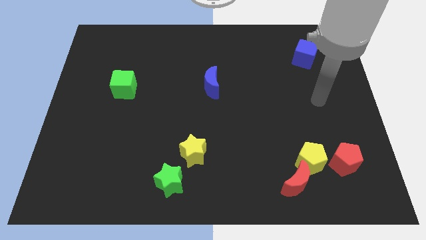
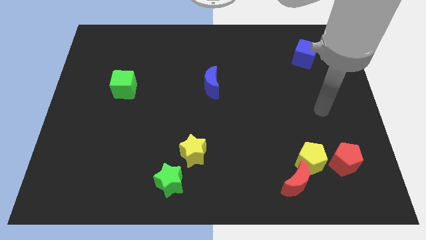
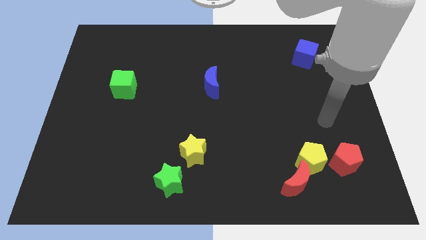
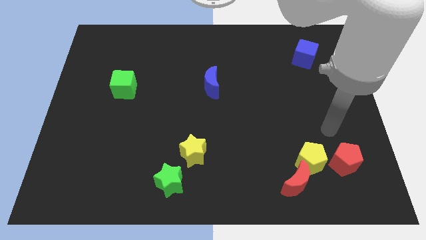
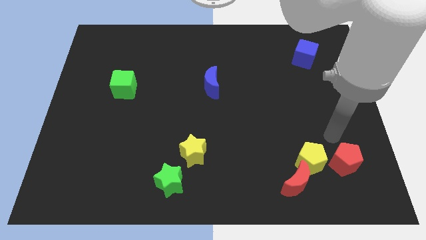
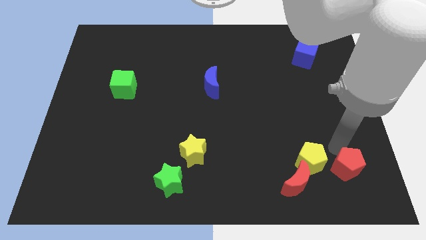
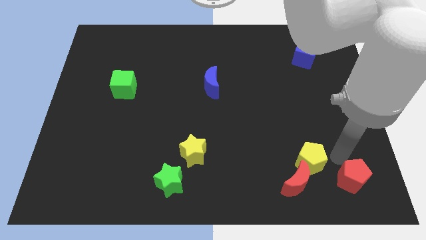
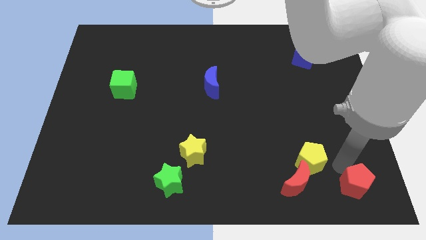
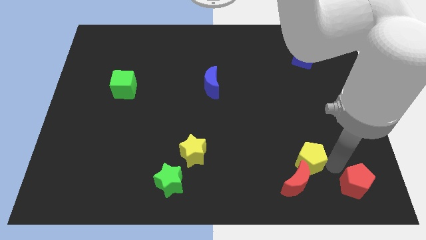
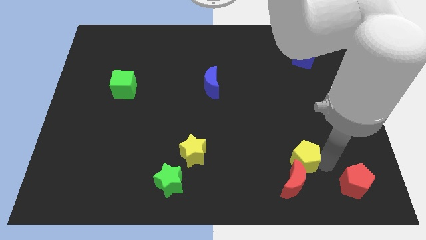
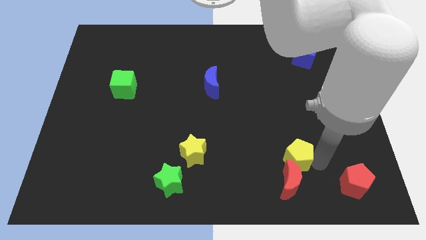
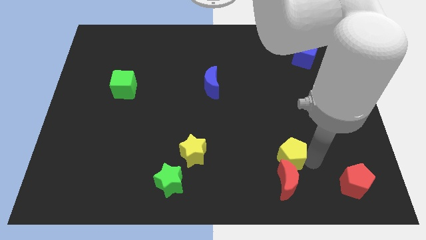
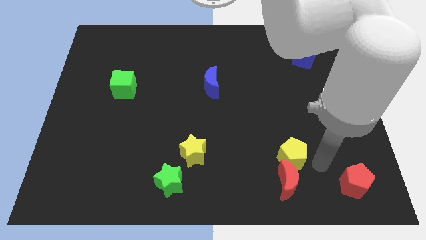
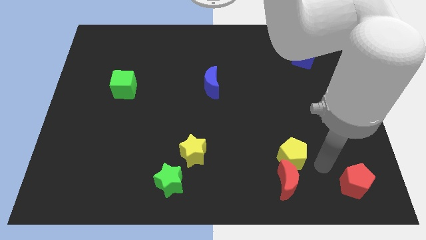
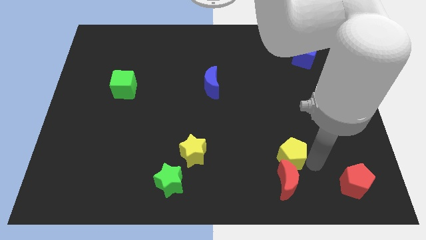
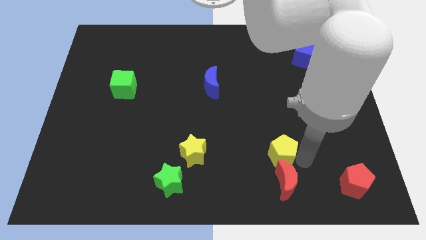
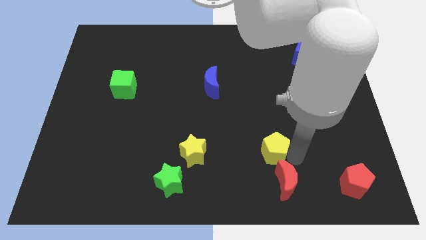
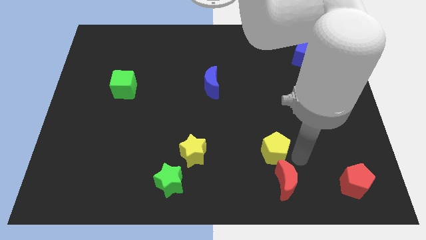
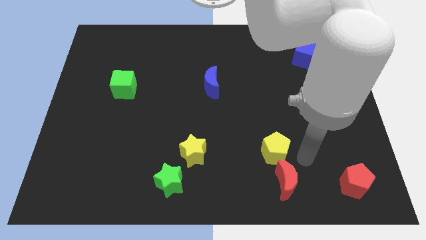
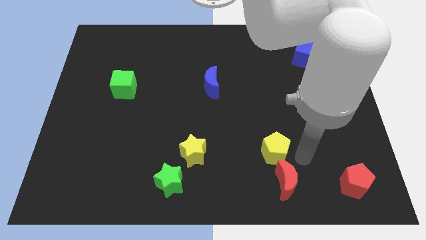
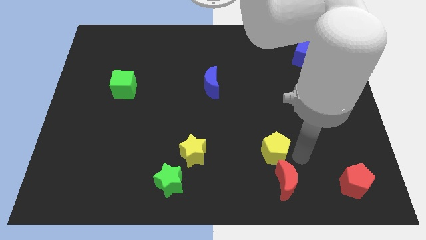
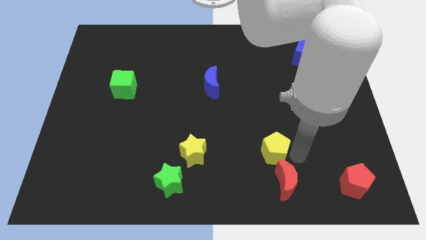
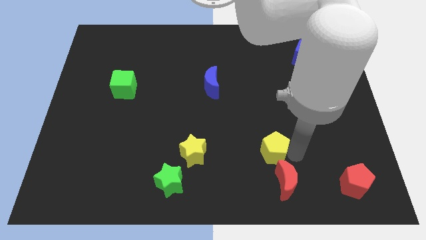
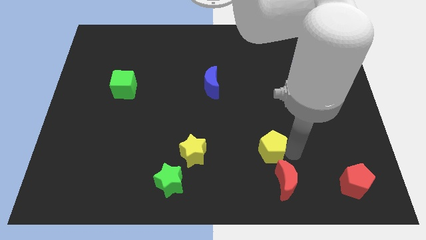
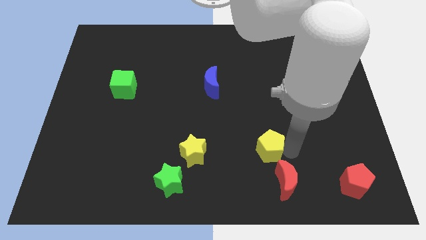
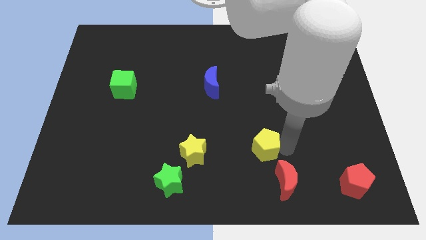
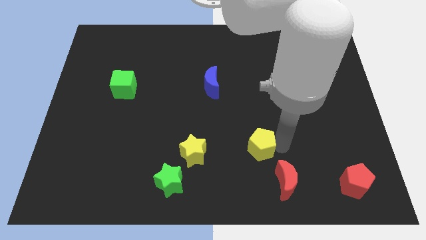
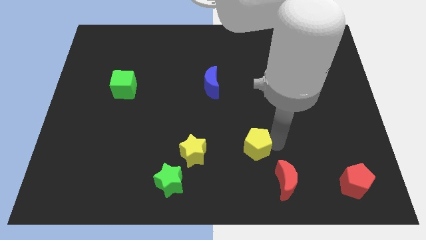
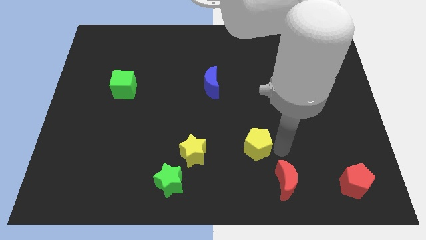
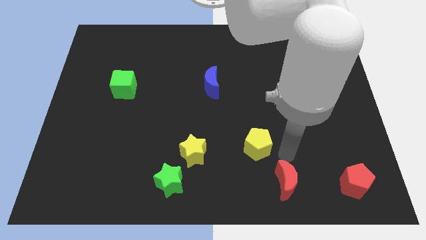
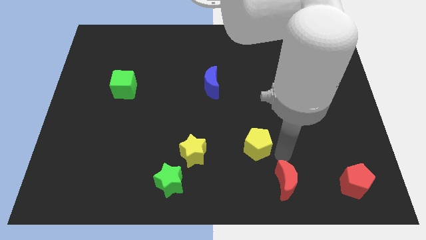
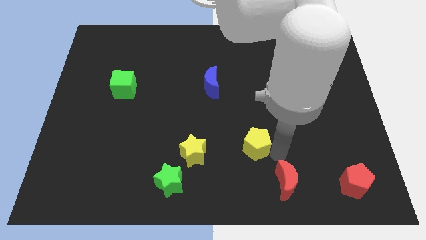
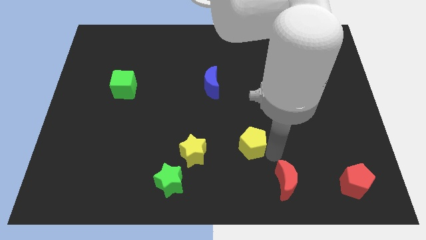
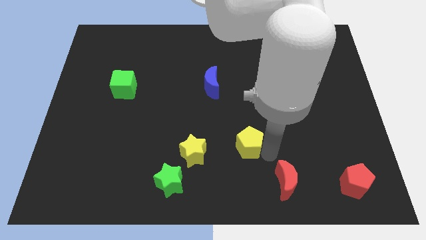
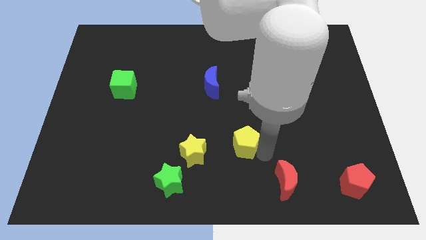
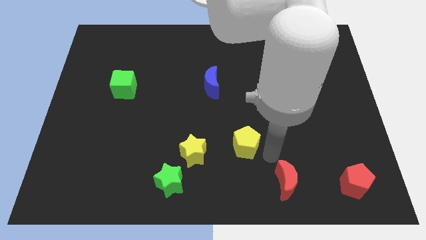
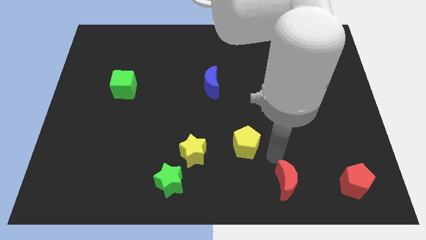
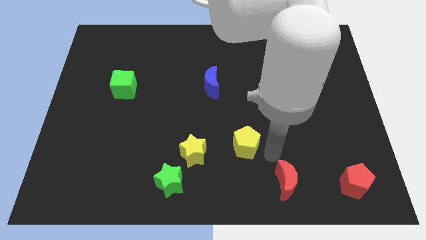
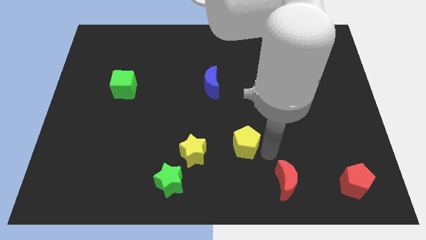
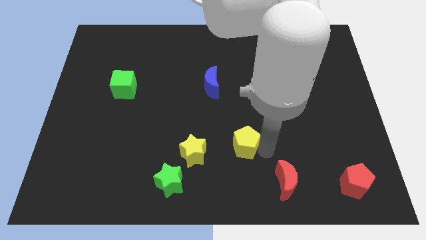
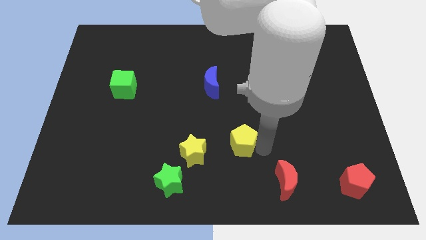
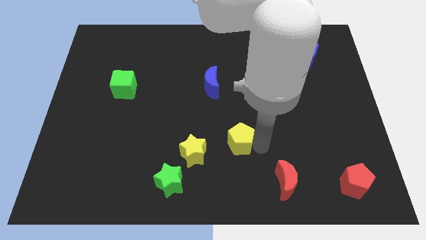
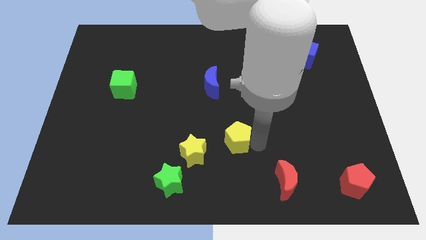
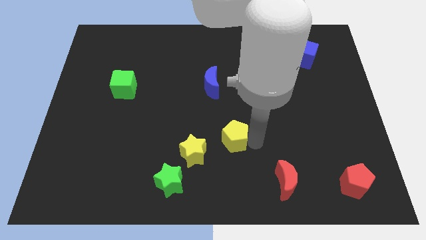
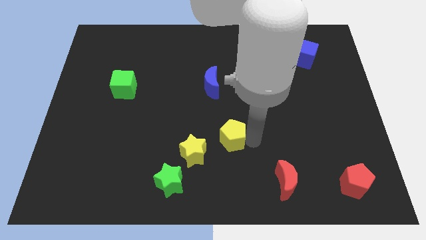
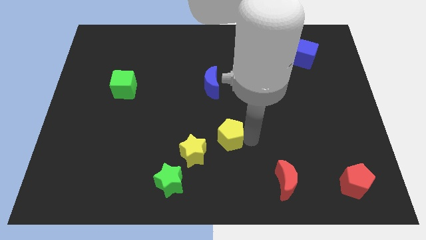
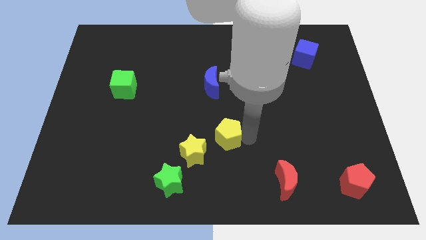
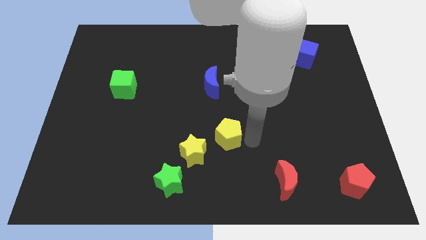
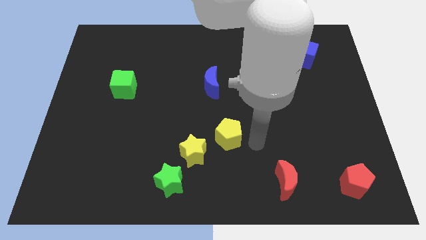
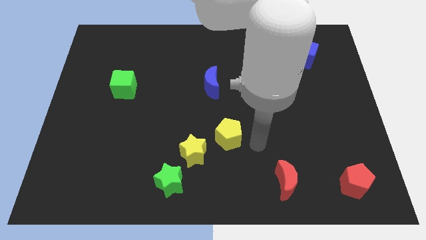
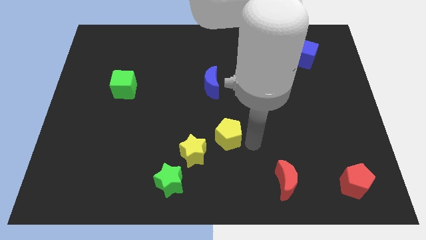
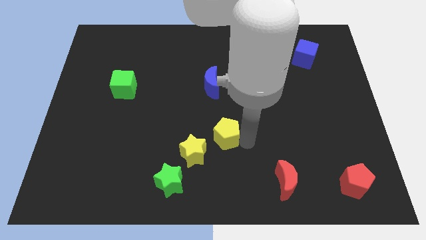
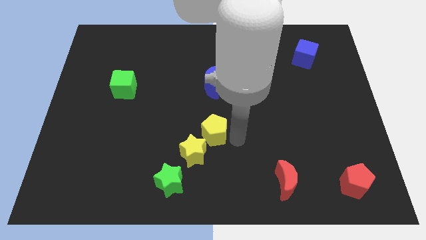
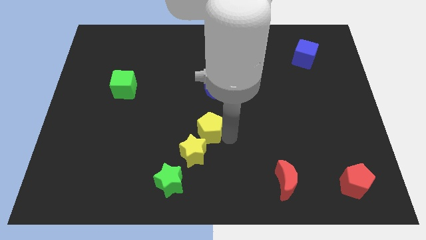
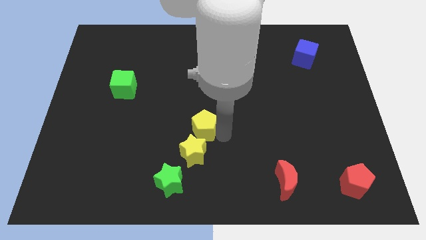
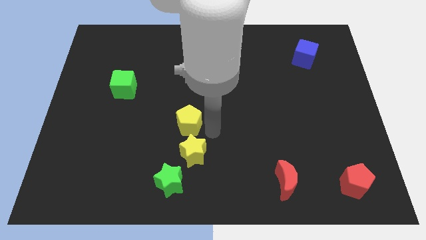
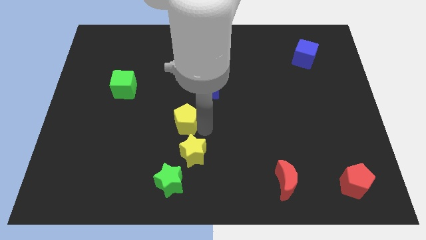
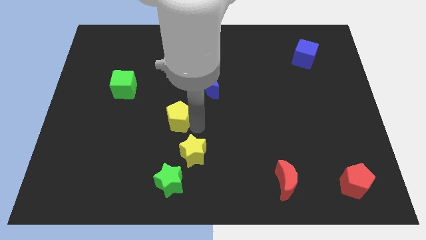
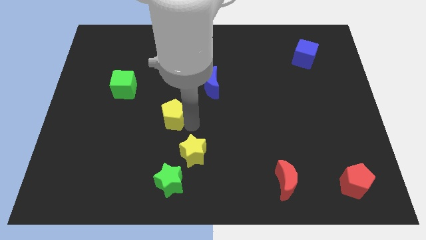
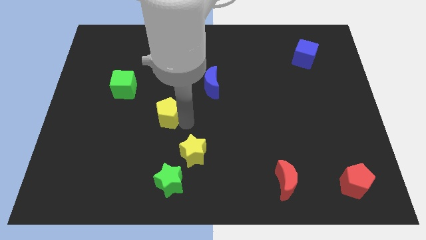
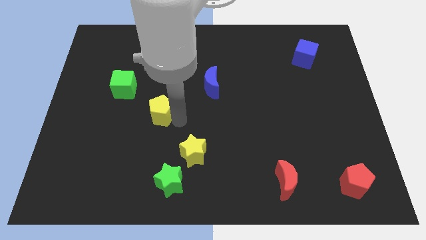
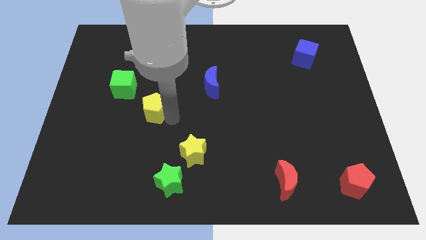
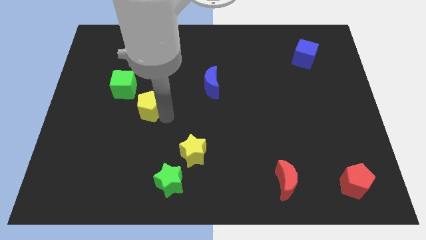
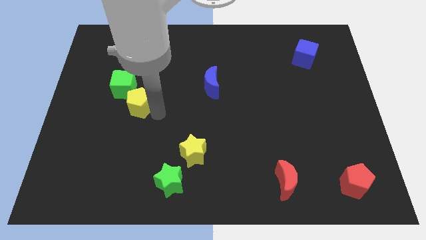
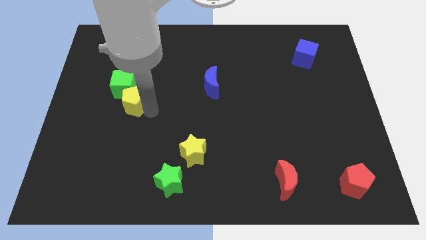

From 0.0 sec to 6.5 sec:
put the yellow pentagon towards the green cube

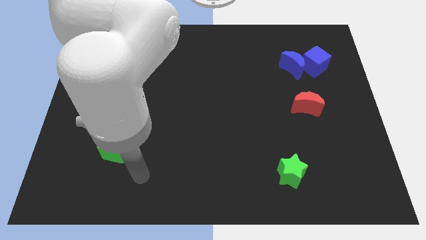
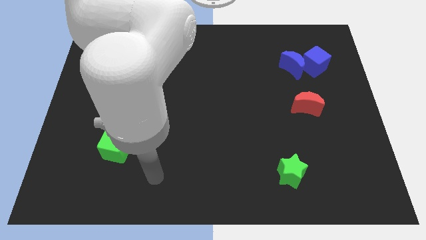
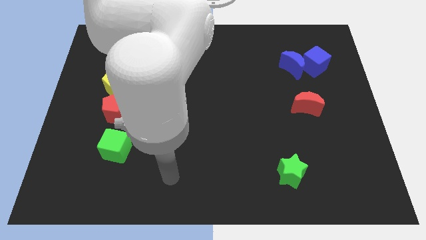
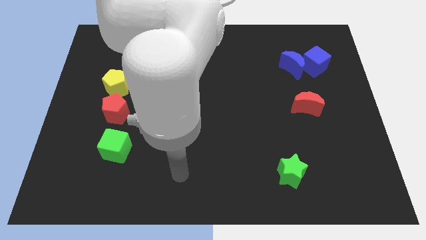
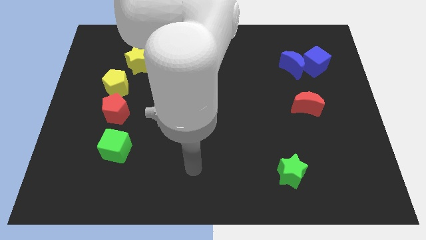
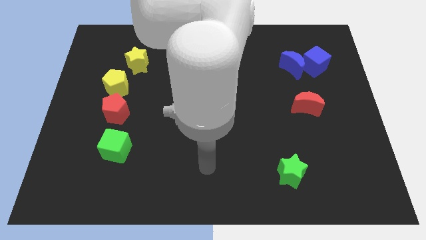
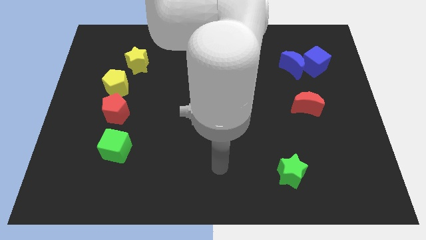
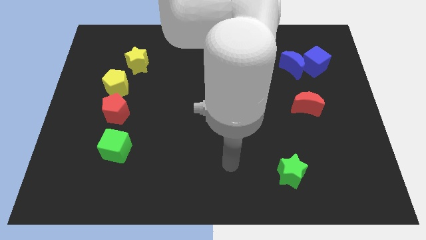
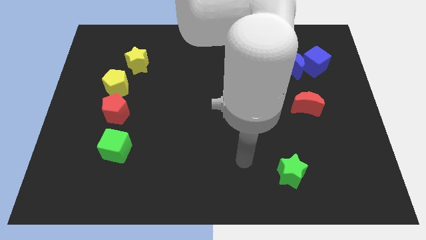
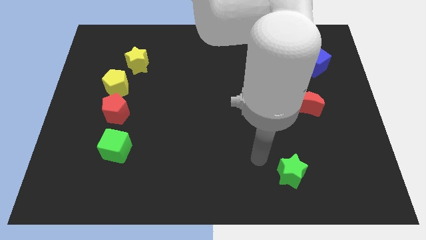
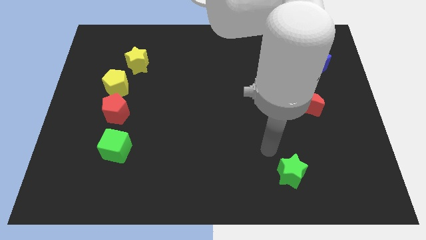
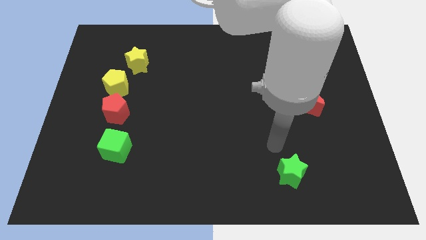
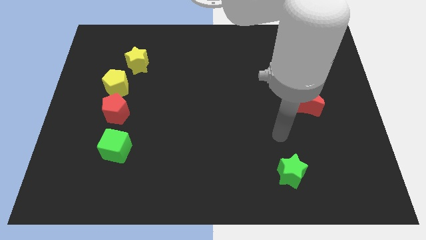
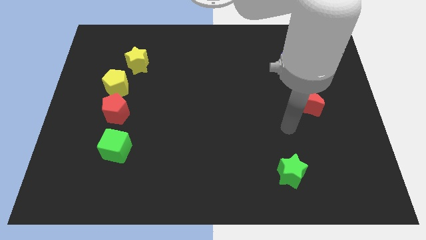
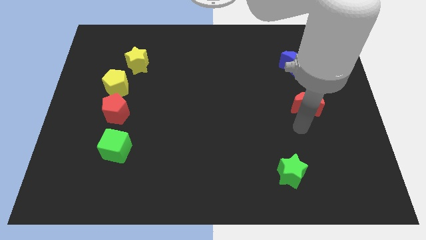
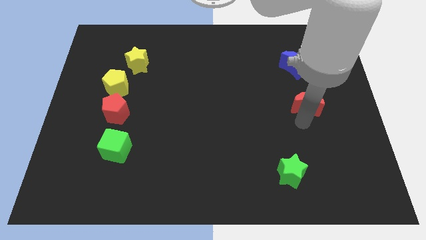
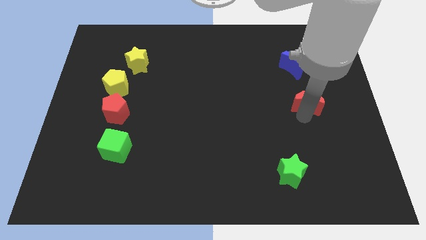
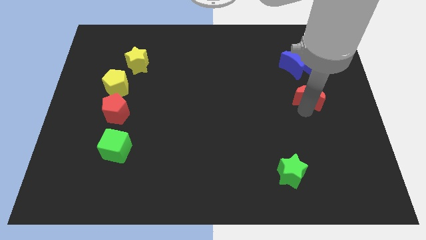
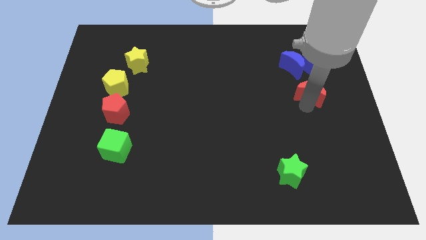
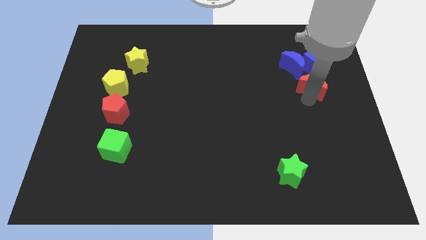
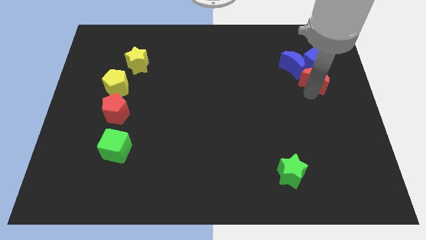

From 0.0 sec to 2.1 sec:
move the red moon towards the blue cube
